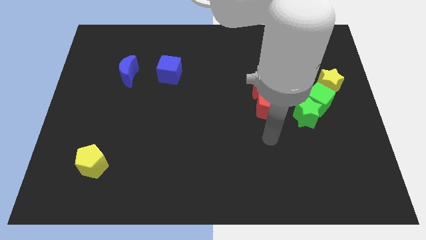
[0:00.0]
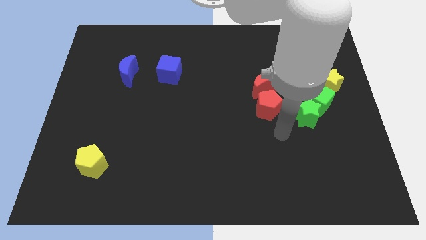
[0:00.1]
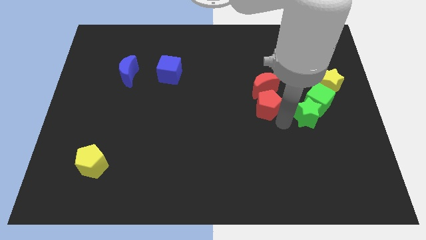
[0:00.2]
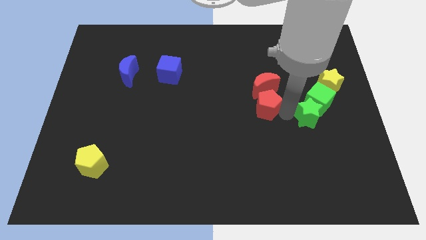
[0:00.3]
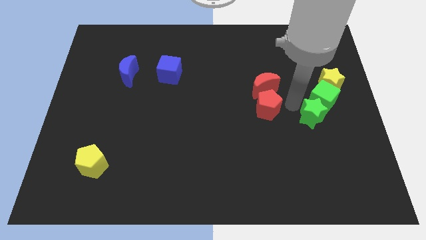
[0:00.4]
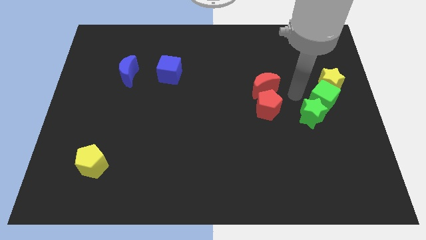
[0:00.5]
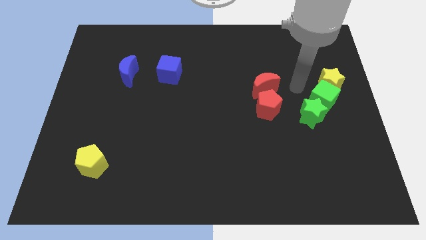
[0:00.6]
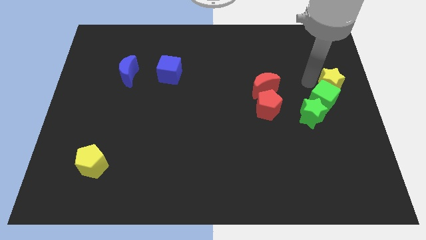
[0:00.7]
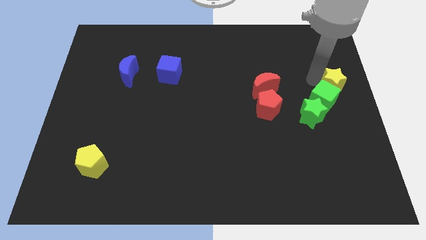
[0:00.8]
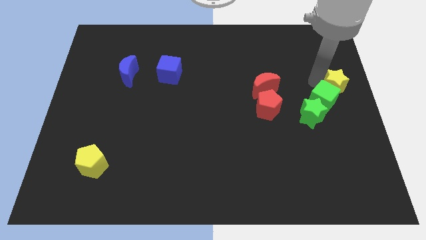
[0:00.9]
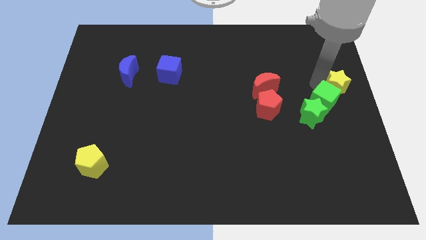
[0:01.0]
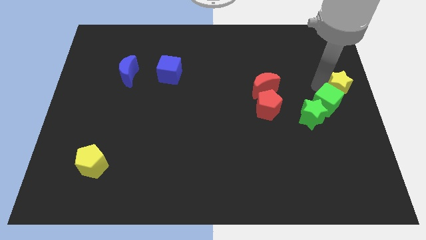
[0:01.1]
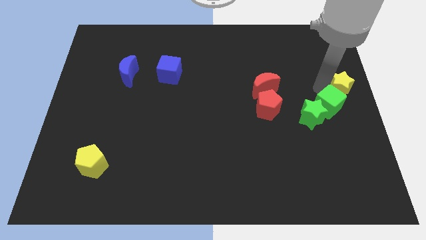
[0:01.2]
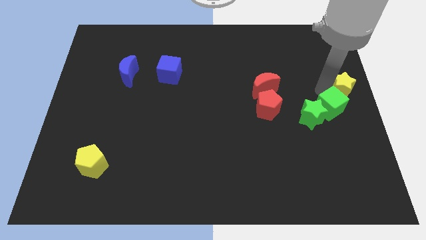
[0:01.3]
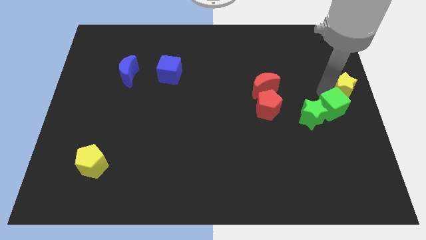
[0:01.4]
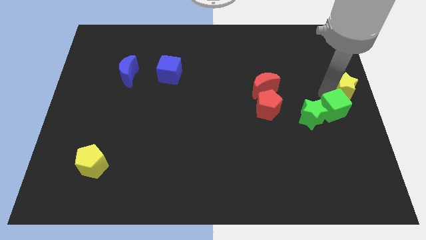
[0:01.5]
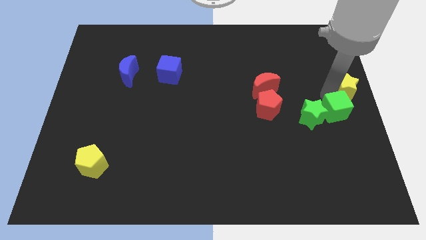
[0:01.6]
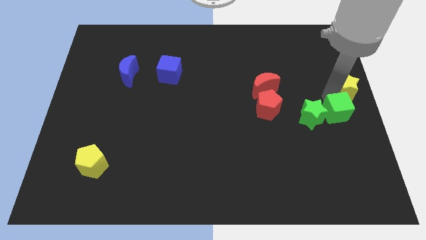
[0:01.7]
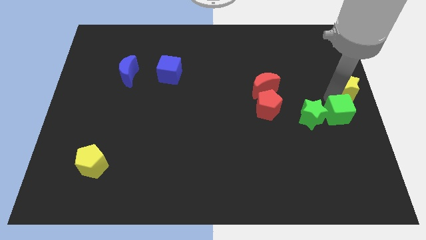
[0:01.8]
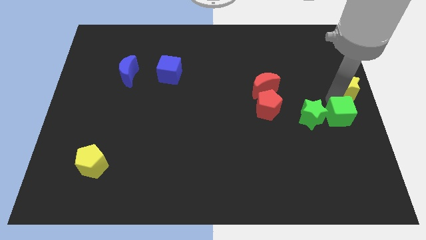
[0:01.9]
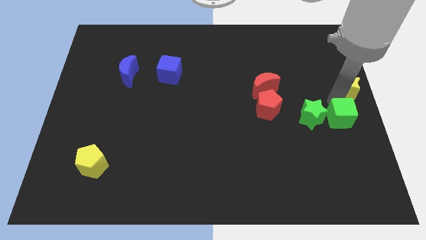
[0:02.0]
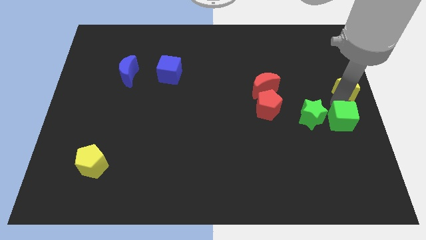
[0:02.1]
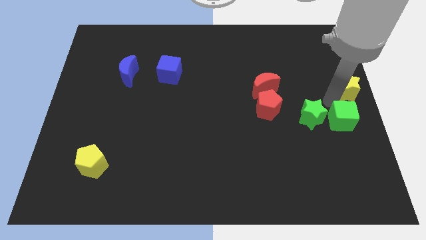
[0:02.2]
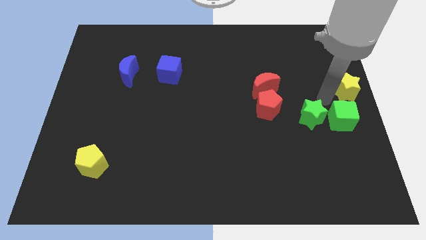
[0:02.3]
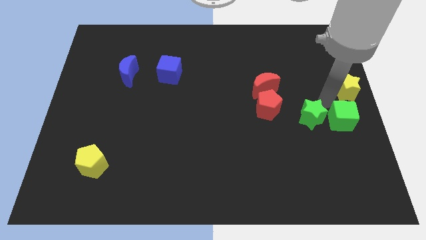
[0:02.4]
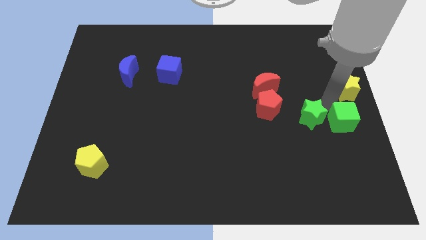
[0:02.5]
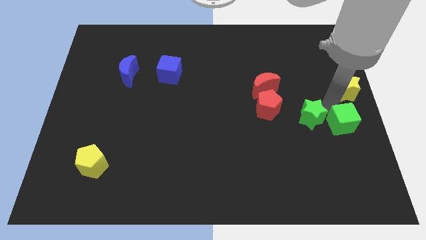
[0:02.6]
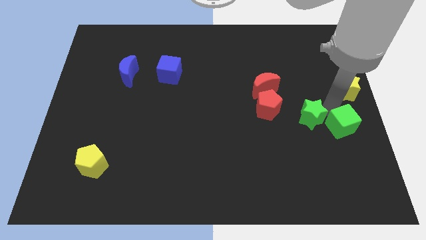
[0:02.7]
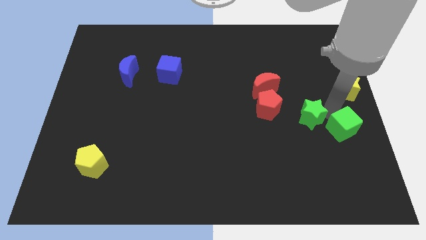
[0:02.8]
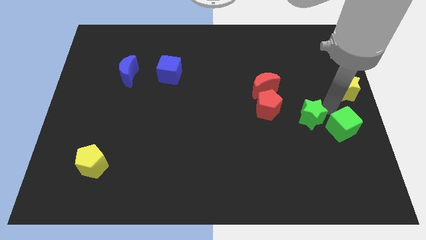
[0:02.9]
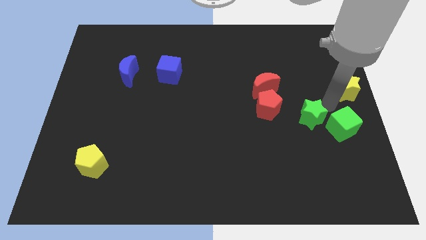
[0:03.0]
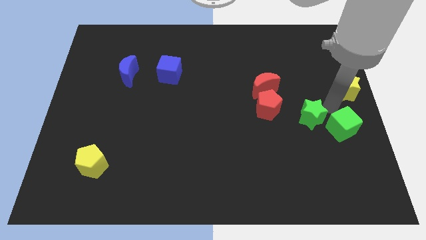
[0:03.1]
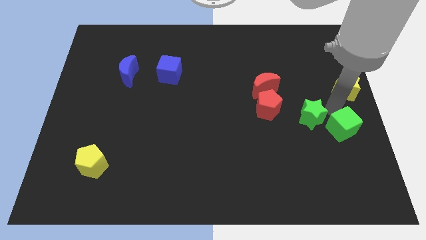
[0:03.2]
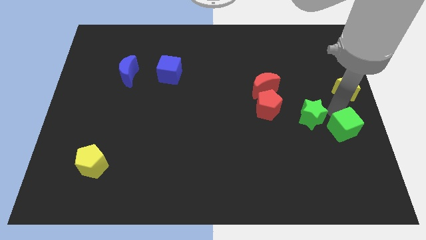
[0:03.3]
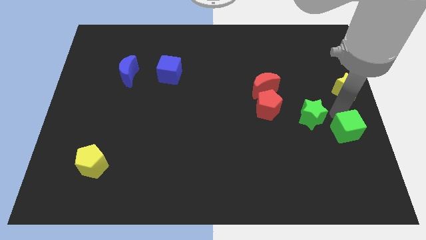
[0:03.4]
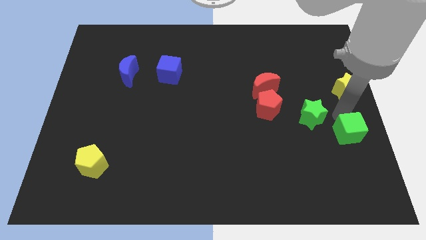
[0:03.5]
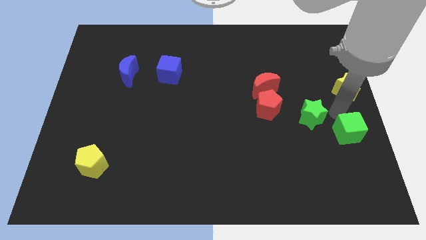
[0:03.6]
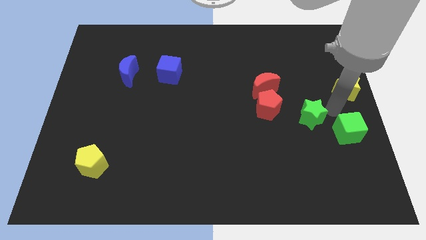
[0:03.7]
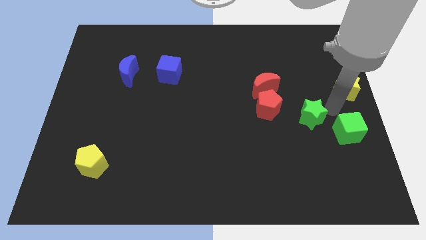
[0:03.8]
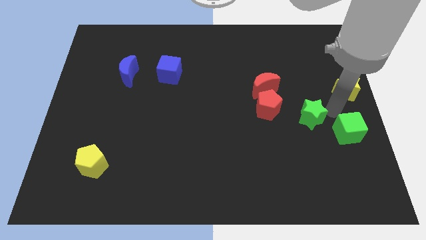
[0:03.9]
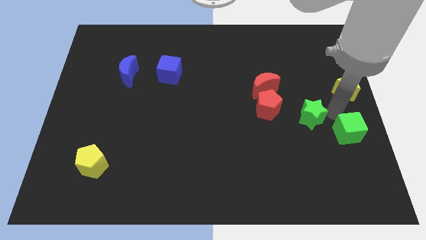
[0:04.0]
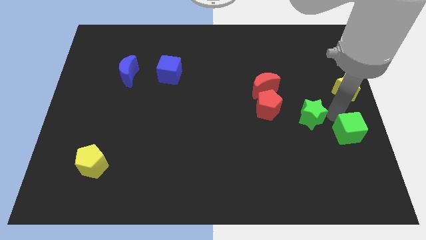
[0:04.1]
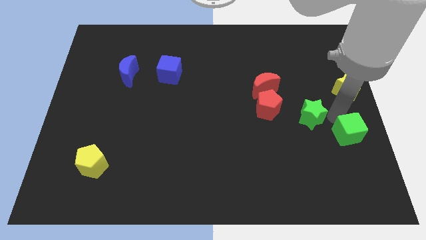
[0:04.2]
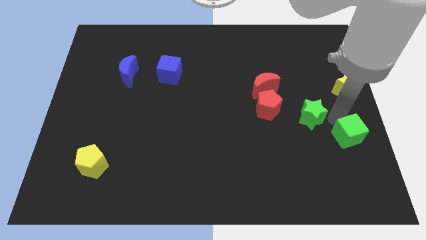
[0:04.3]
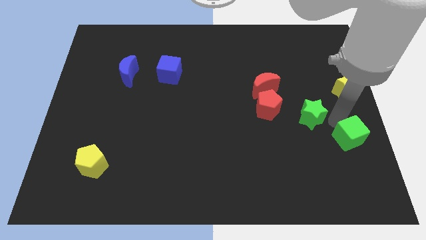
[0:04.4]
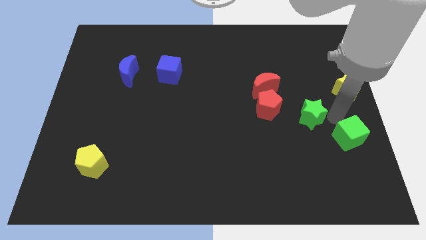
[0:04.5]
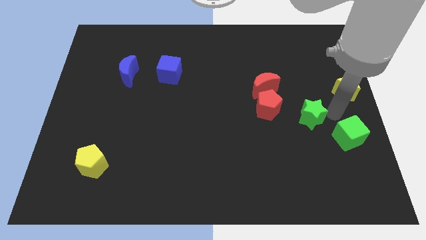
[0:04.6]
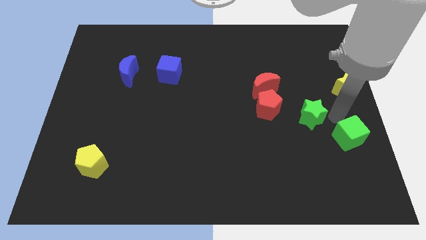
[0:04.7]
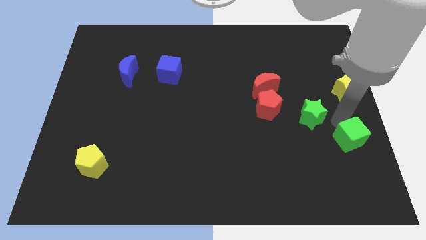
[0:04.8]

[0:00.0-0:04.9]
separate the green cube from the green star and yellow star

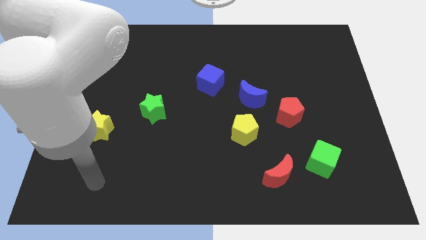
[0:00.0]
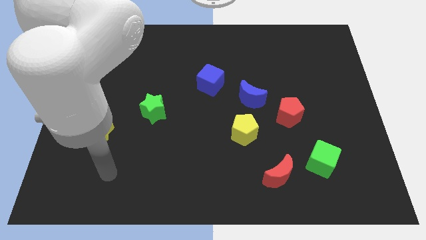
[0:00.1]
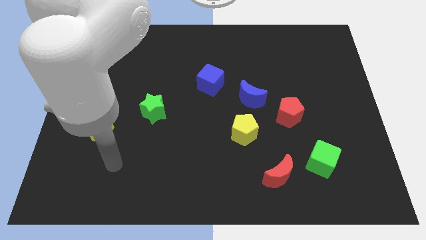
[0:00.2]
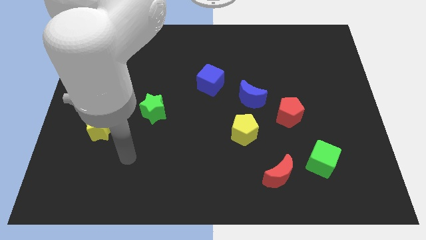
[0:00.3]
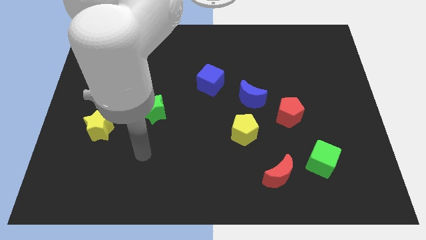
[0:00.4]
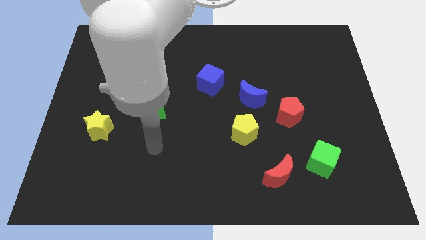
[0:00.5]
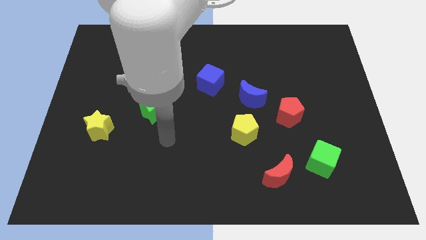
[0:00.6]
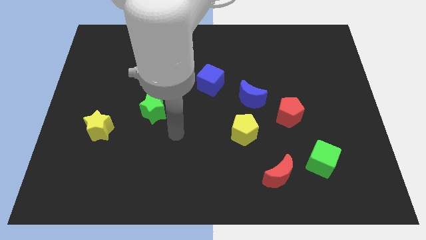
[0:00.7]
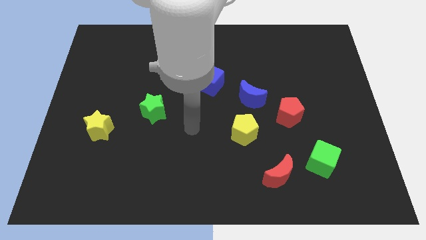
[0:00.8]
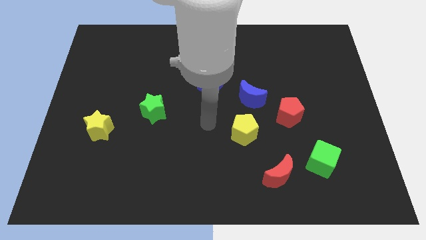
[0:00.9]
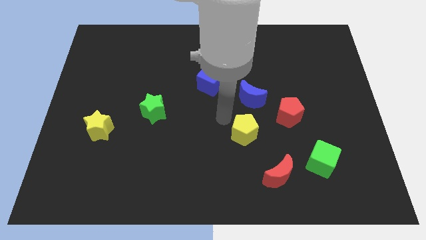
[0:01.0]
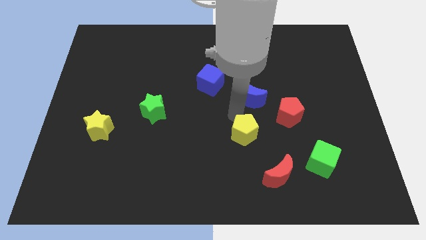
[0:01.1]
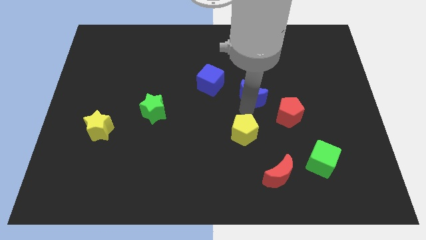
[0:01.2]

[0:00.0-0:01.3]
separate the yellow pentagon from the blue moon

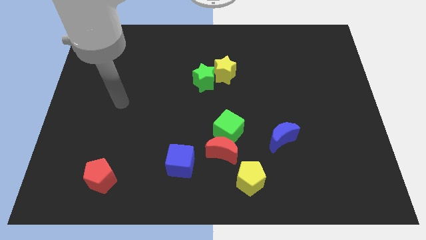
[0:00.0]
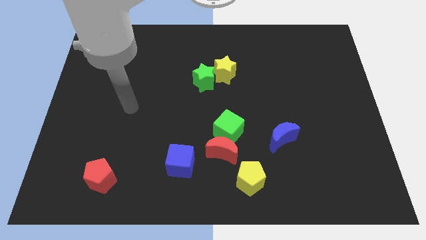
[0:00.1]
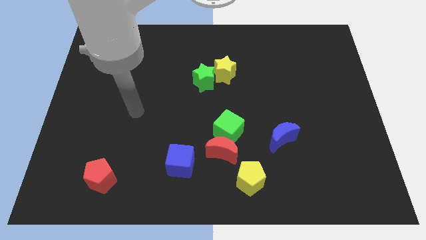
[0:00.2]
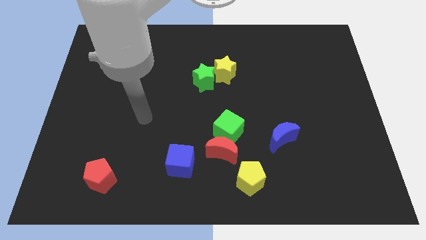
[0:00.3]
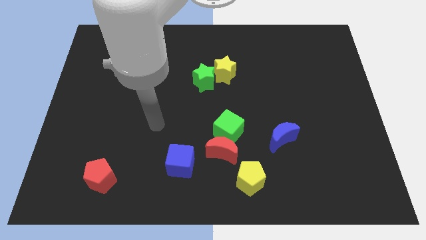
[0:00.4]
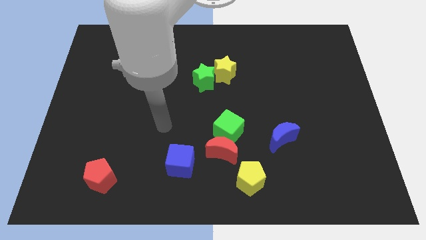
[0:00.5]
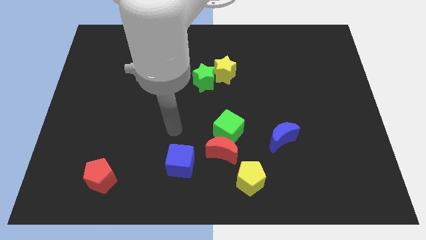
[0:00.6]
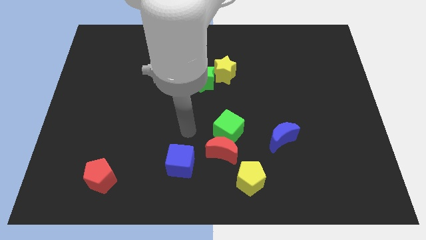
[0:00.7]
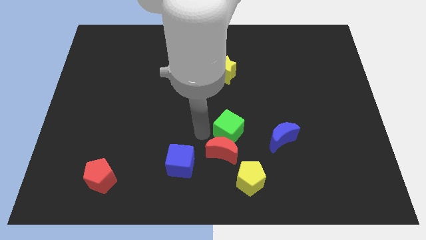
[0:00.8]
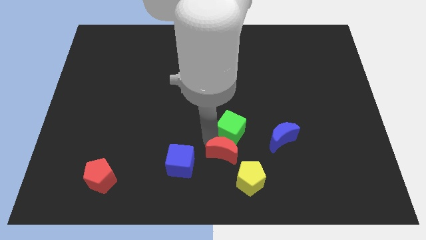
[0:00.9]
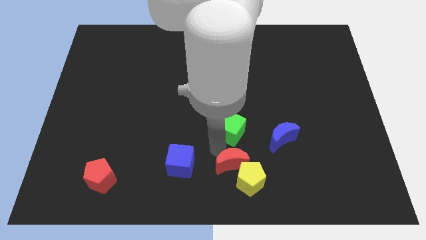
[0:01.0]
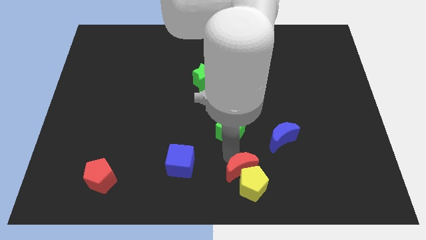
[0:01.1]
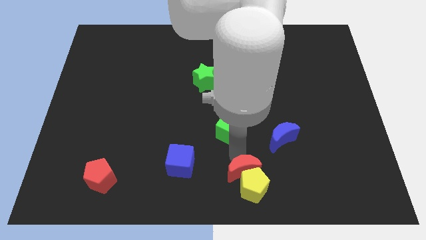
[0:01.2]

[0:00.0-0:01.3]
pull the green cube apart from the red moon

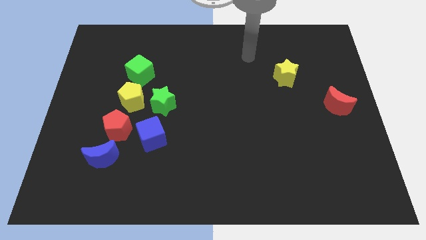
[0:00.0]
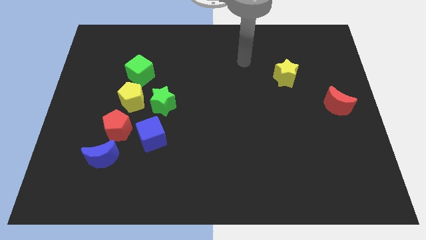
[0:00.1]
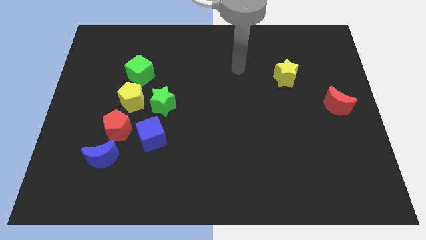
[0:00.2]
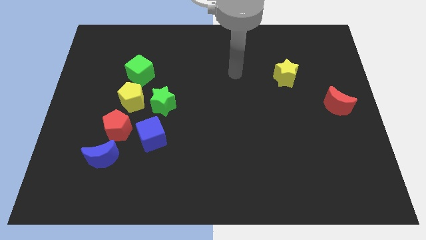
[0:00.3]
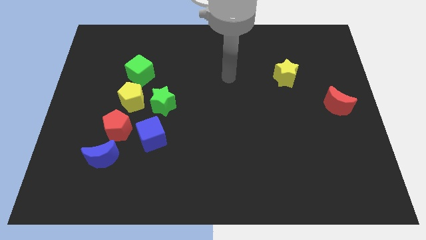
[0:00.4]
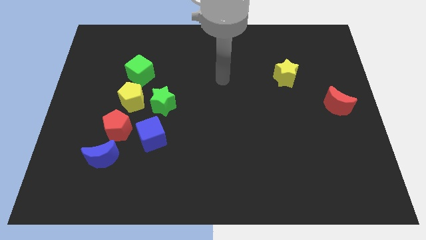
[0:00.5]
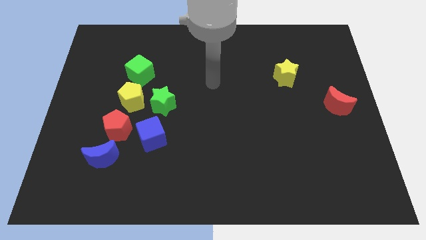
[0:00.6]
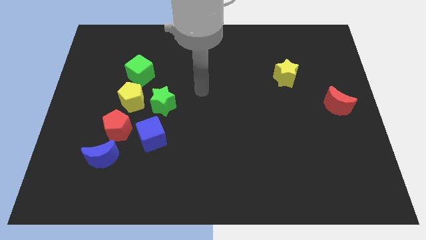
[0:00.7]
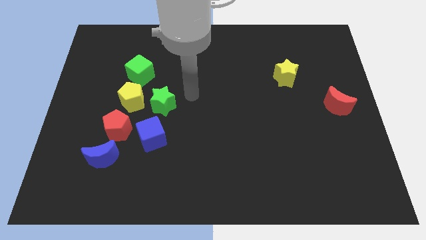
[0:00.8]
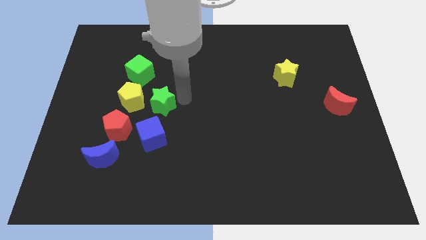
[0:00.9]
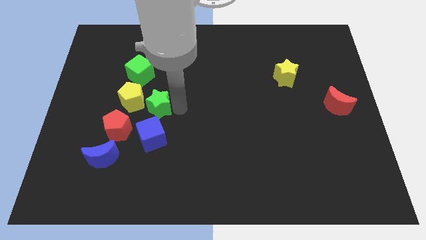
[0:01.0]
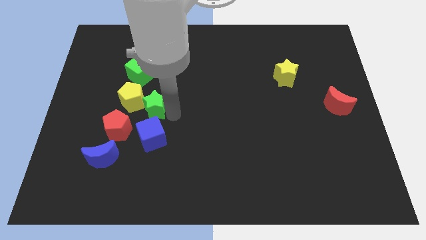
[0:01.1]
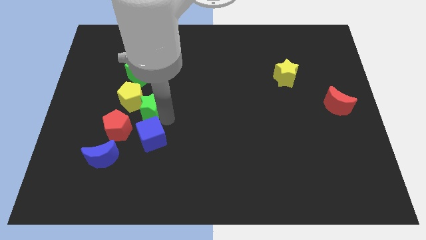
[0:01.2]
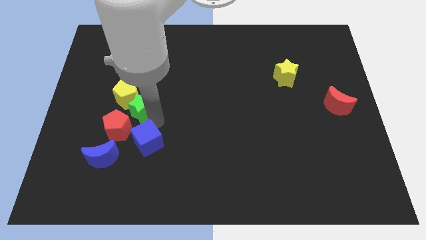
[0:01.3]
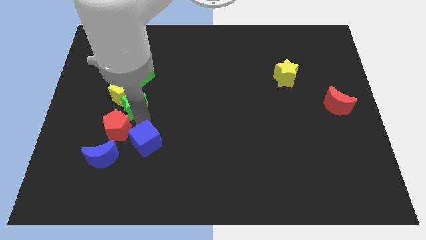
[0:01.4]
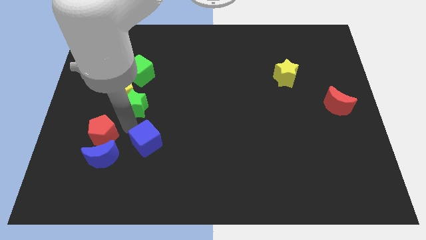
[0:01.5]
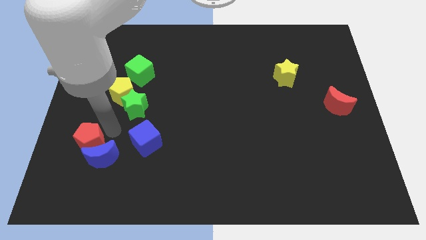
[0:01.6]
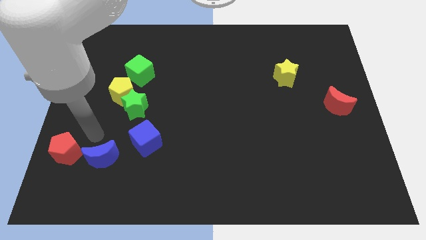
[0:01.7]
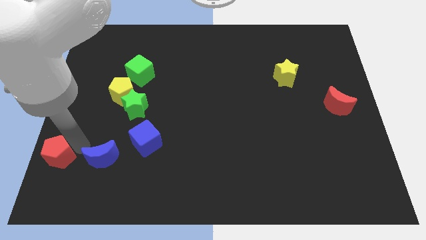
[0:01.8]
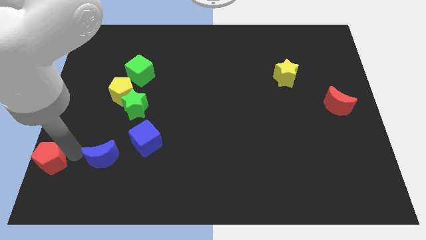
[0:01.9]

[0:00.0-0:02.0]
pull the blue moon apart from the red pentagon
